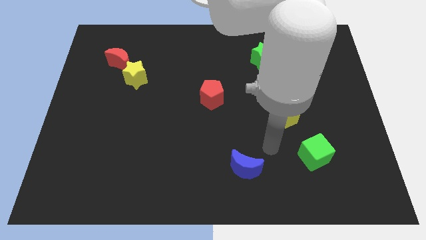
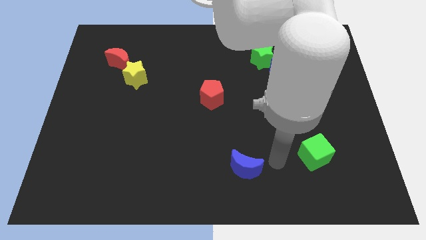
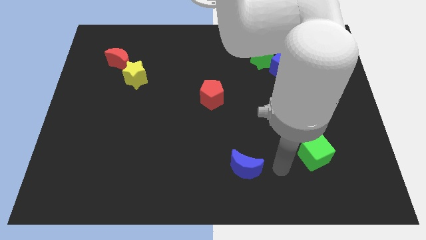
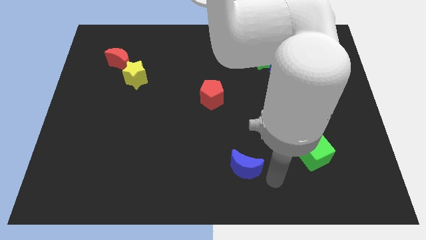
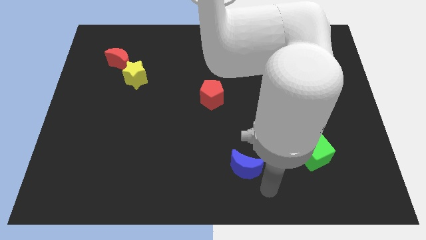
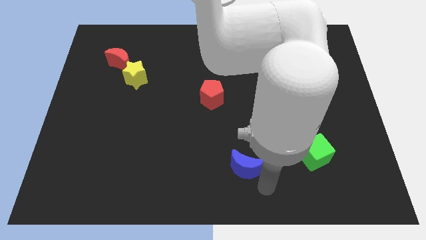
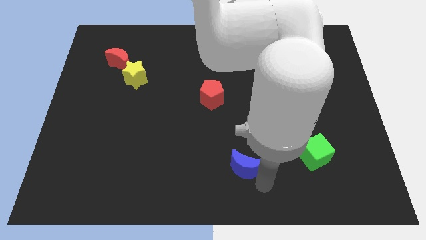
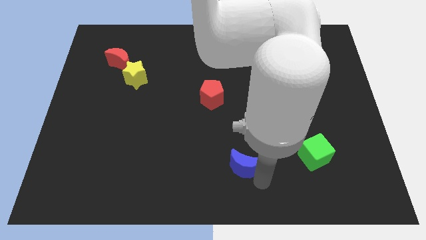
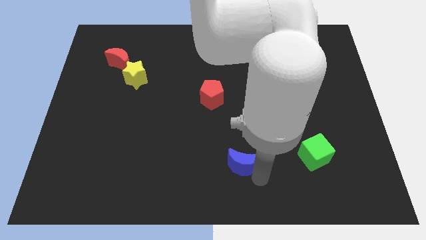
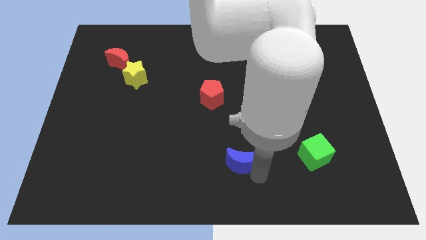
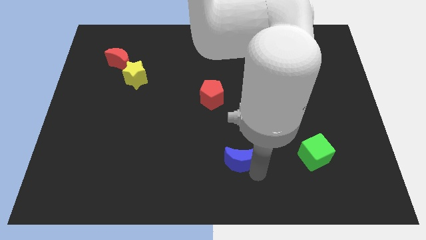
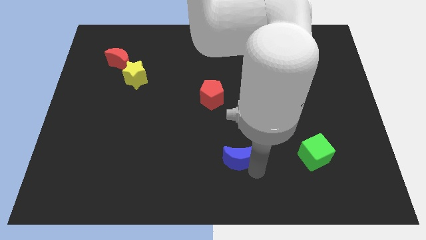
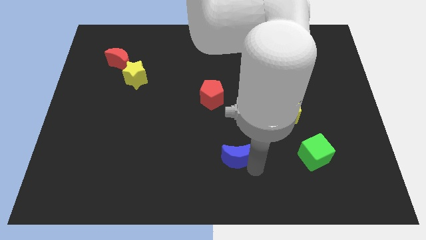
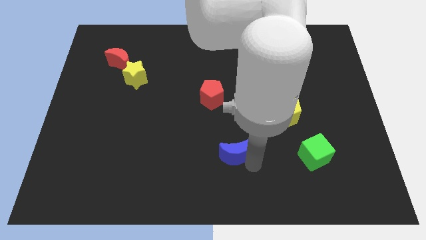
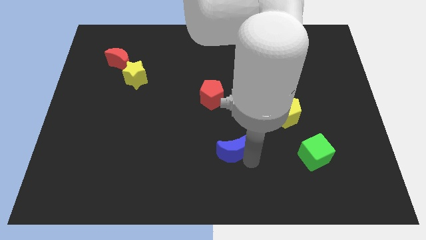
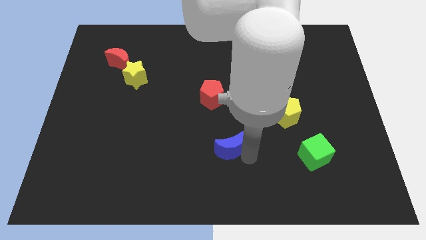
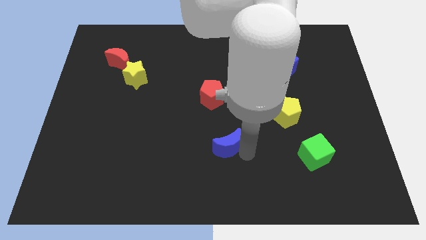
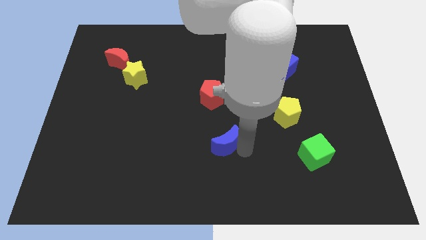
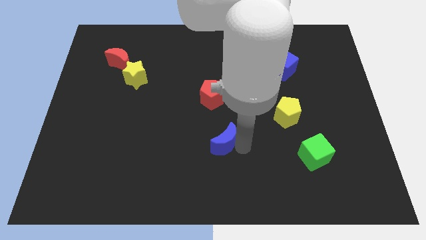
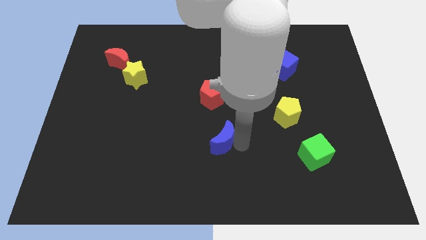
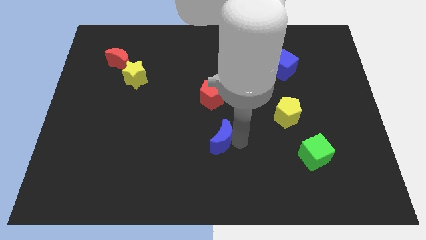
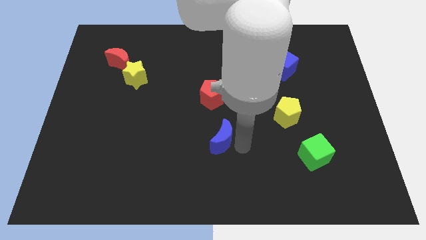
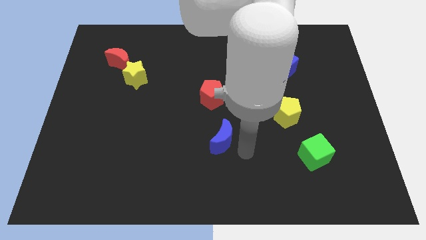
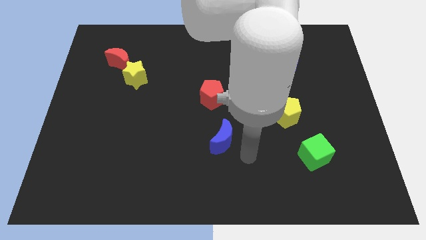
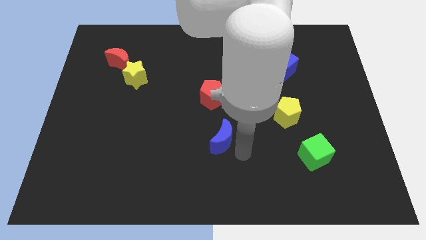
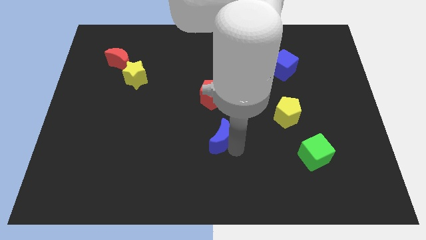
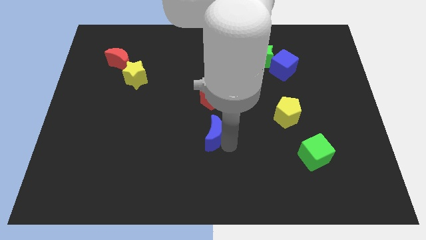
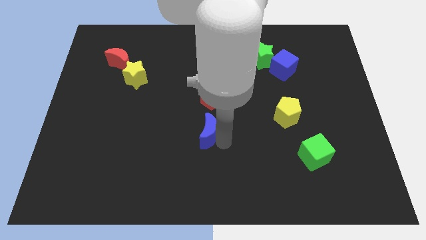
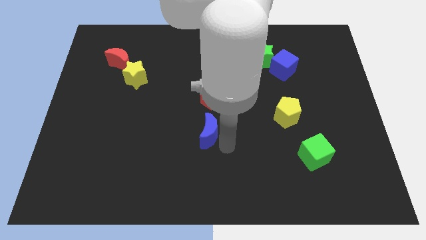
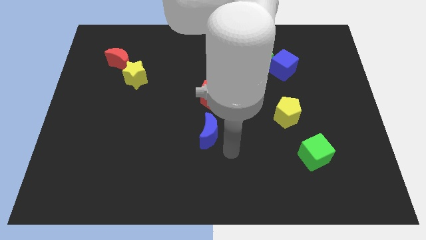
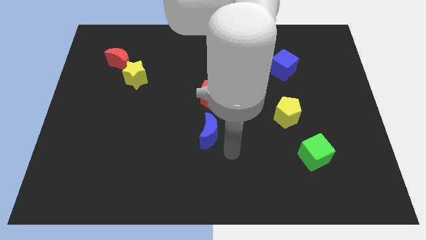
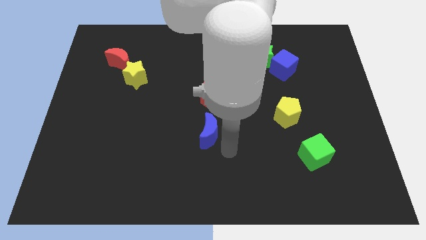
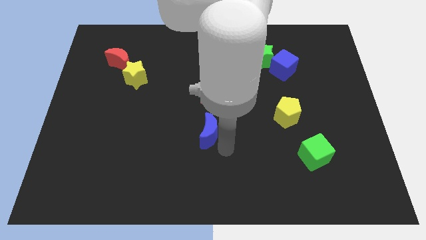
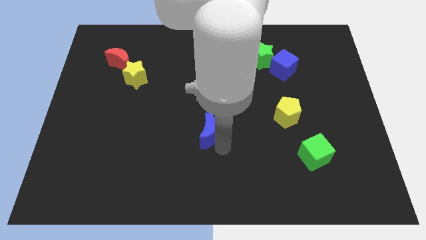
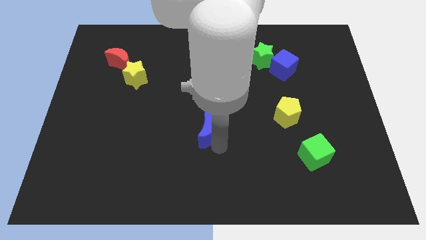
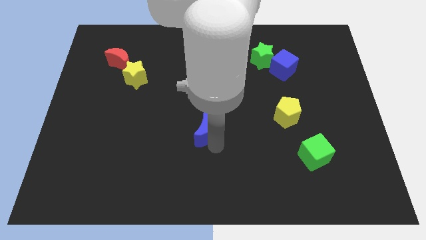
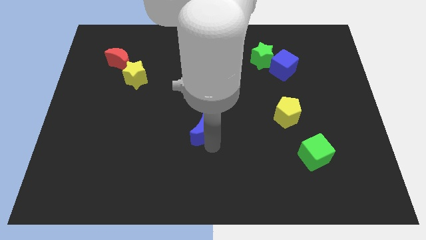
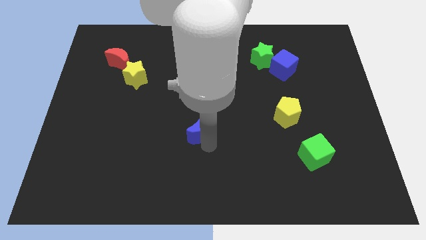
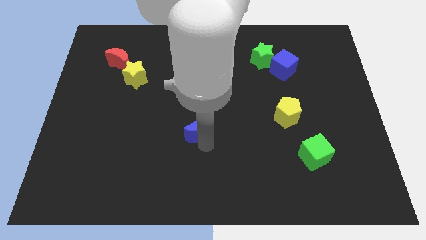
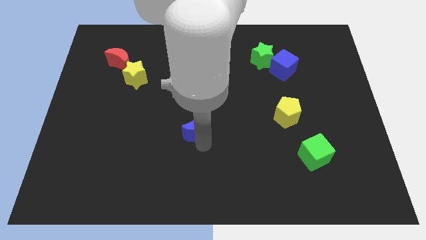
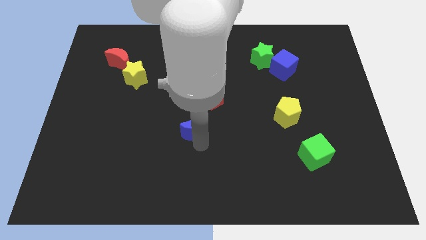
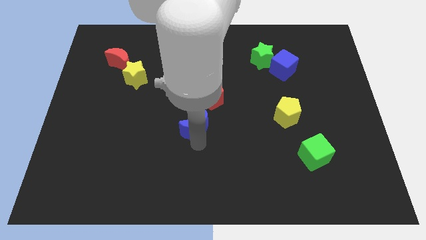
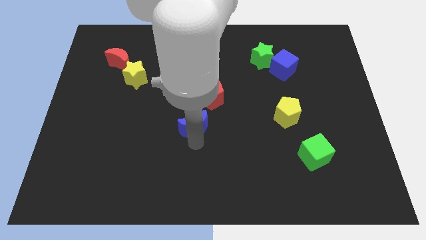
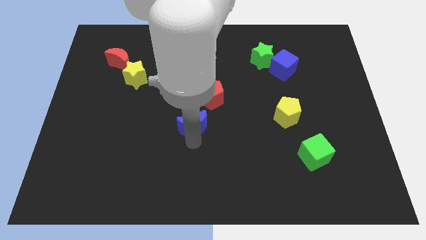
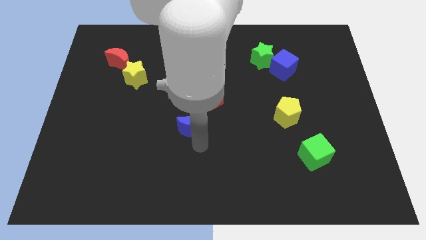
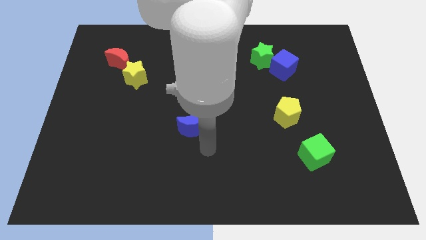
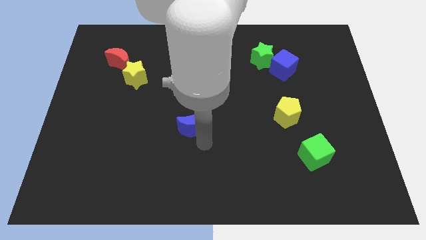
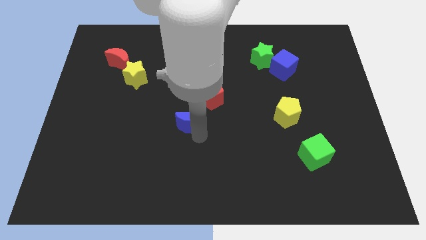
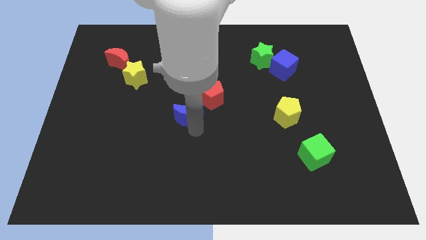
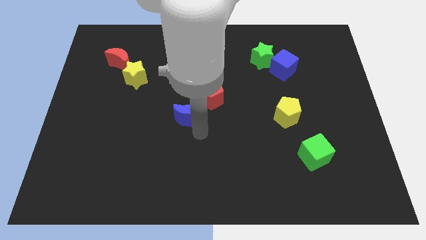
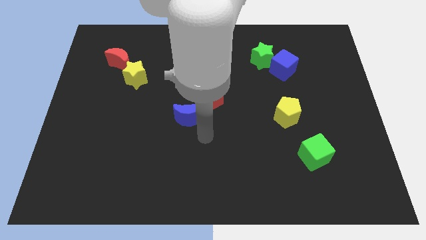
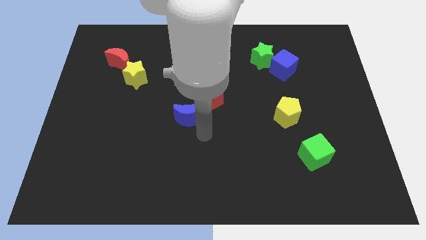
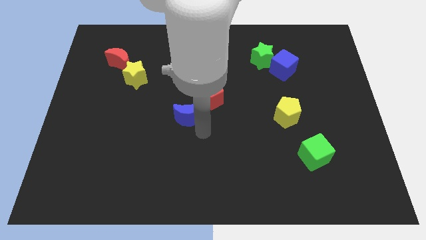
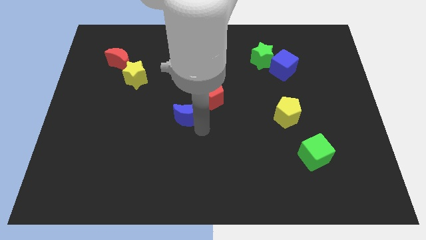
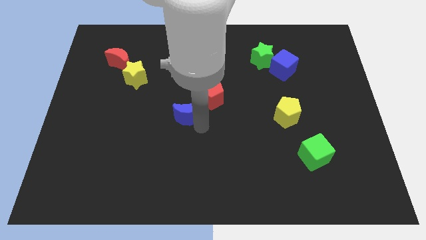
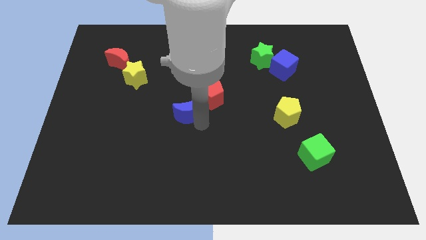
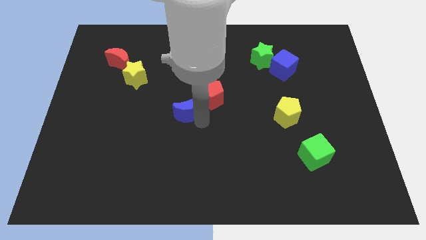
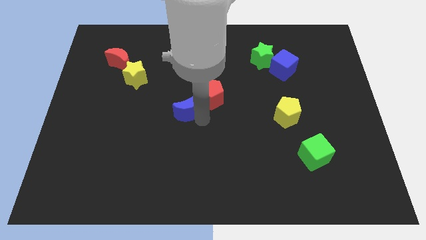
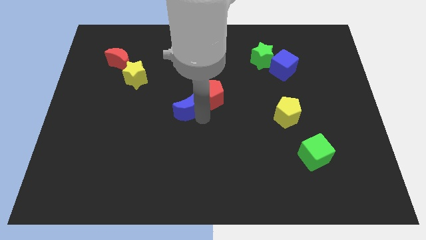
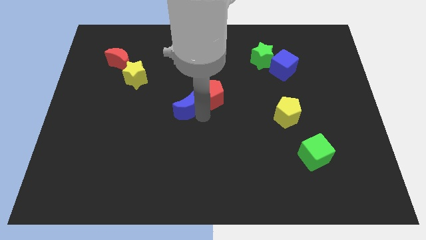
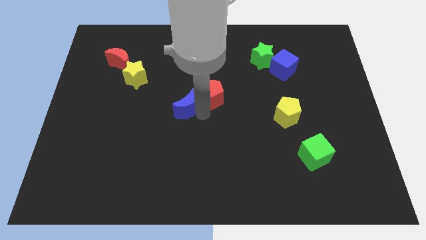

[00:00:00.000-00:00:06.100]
push the blue moon diagonally upwards and left

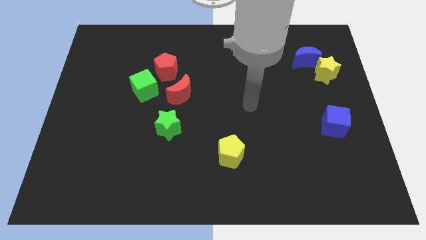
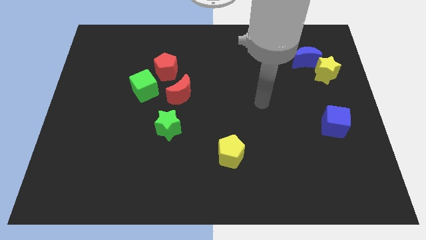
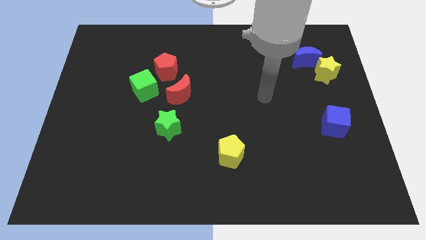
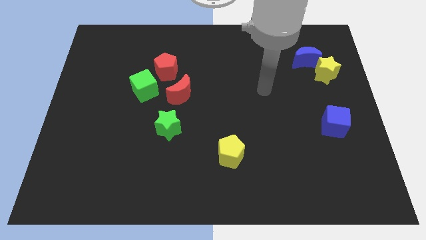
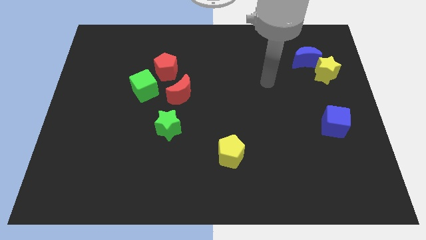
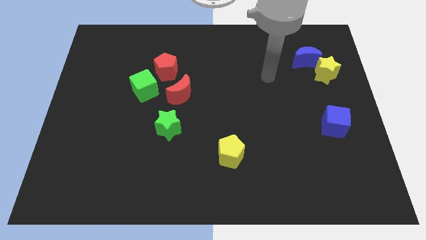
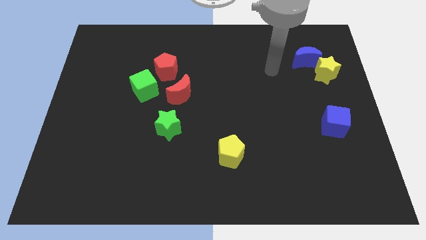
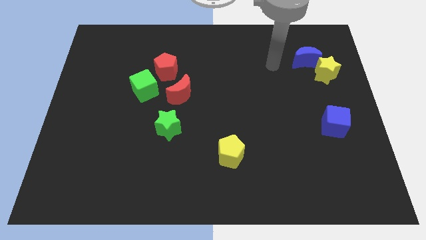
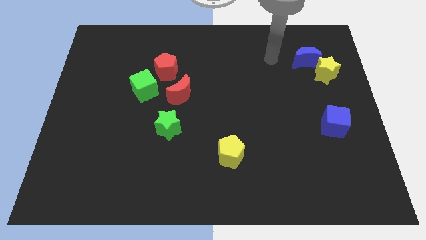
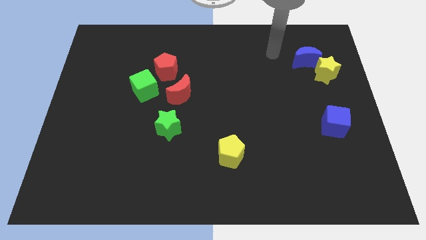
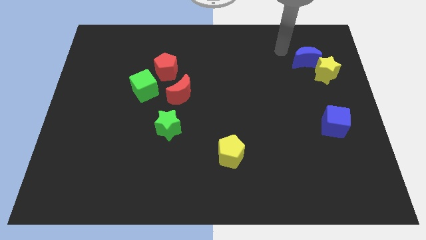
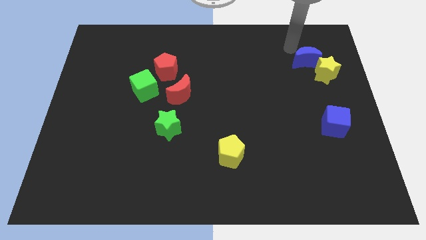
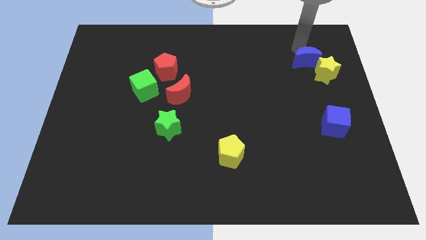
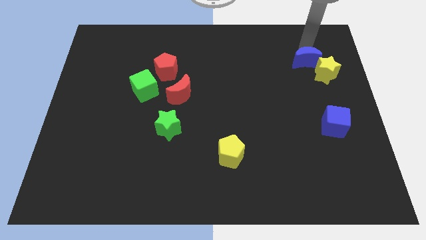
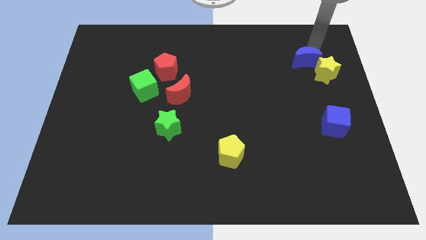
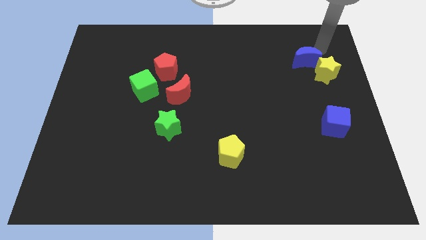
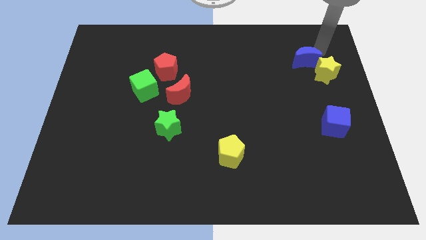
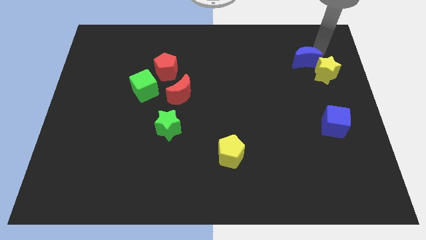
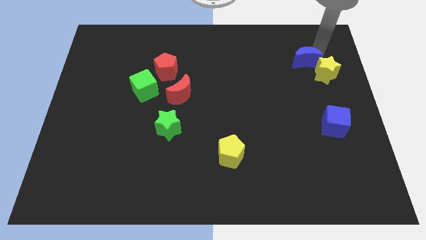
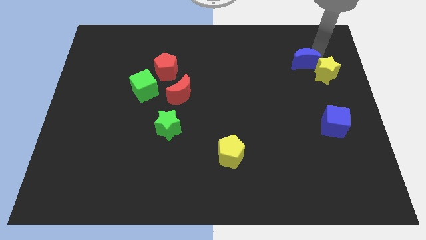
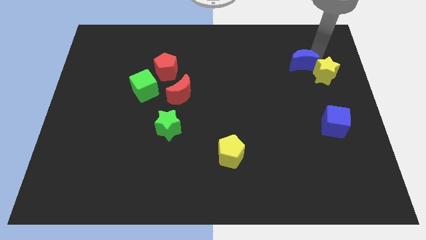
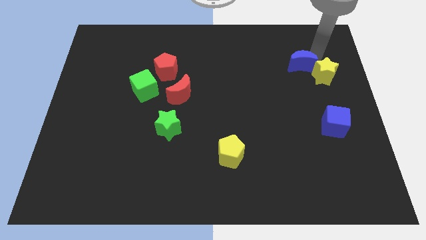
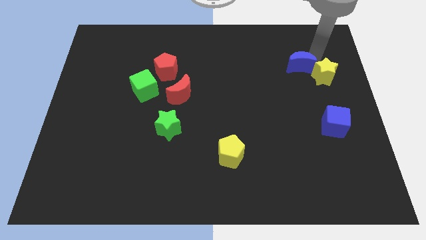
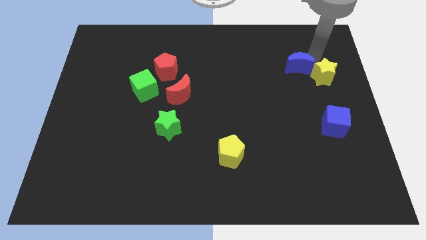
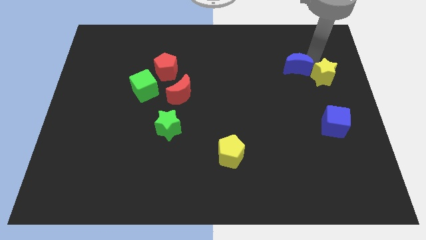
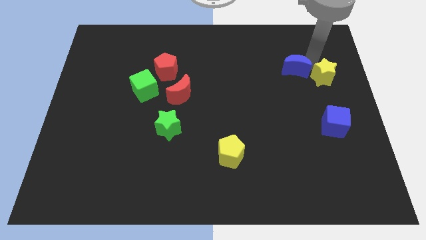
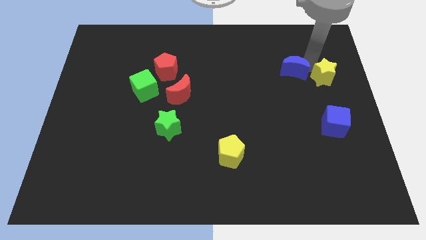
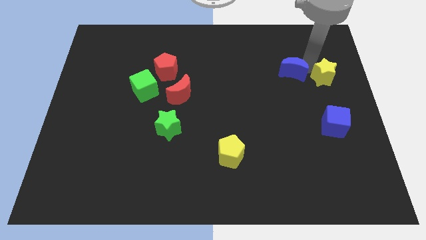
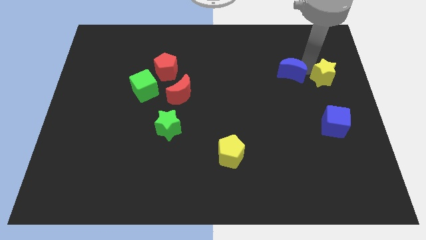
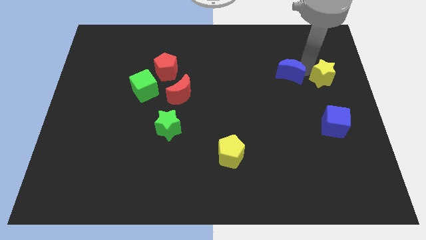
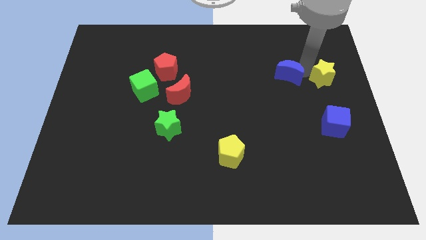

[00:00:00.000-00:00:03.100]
move the blue moon a little bit downwards and left
